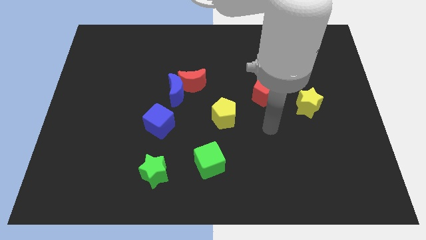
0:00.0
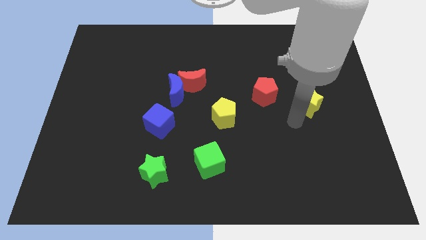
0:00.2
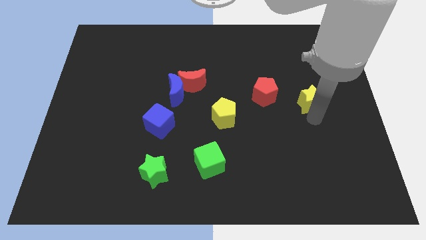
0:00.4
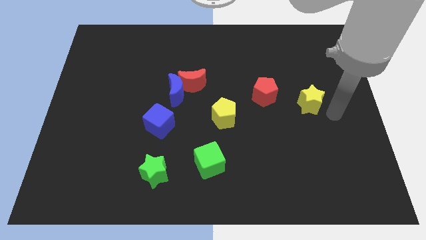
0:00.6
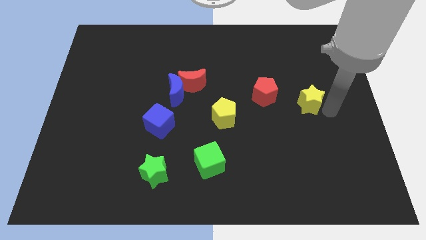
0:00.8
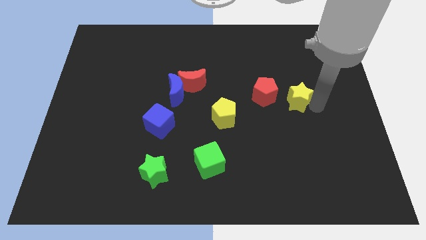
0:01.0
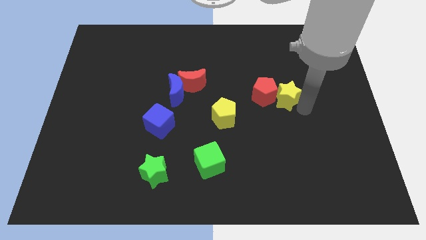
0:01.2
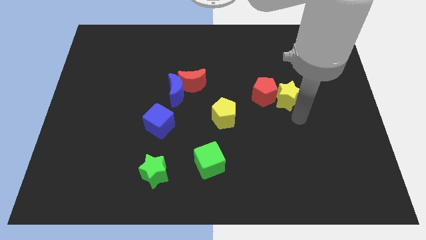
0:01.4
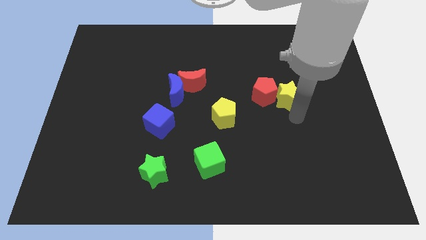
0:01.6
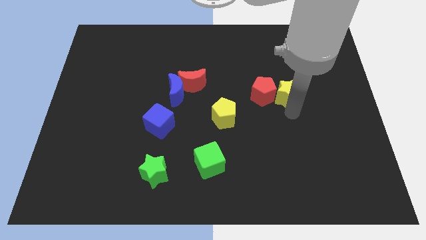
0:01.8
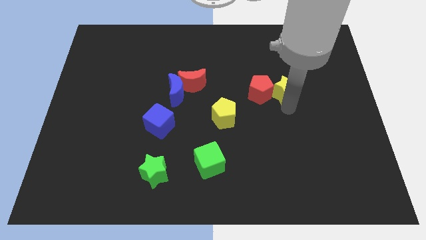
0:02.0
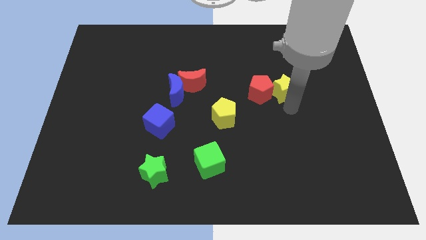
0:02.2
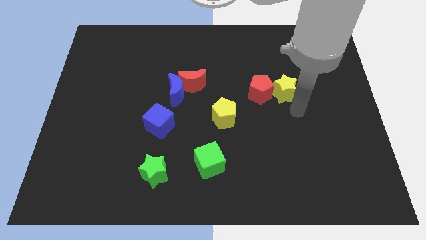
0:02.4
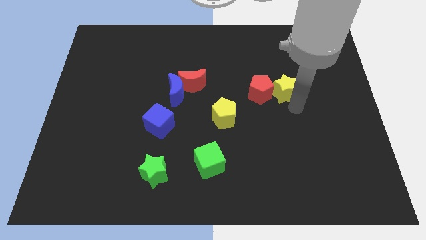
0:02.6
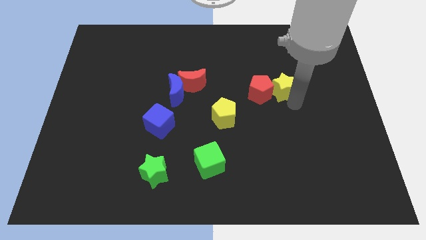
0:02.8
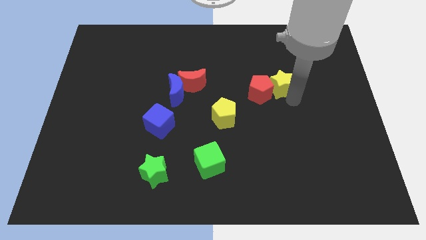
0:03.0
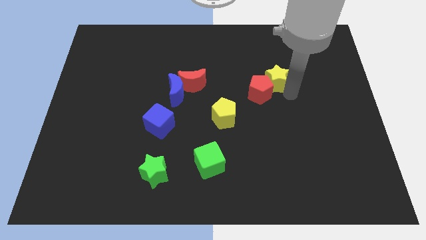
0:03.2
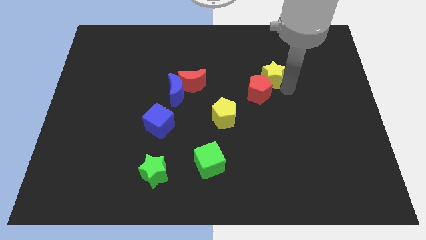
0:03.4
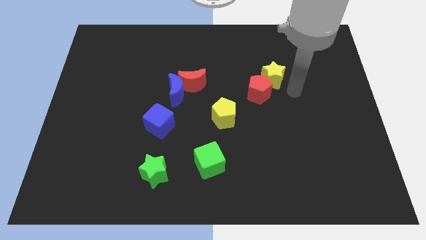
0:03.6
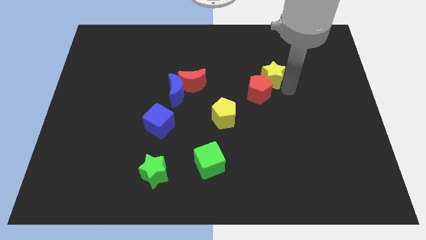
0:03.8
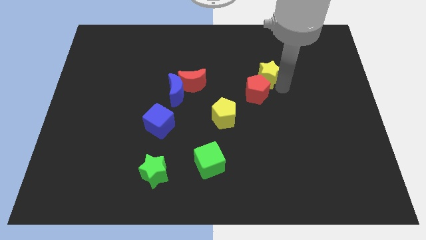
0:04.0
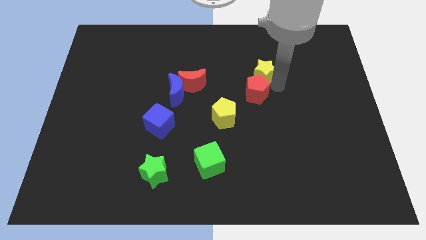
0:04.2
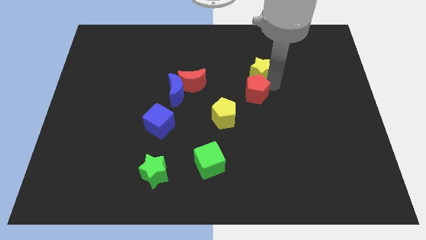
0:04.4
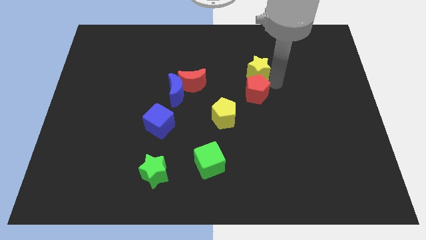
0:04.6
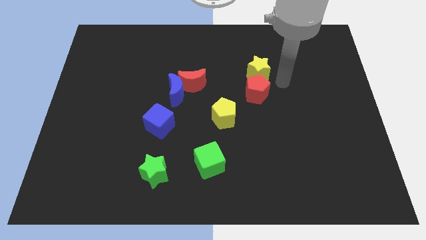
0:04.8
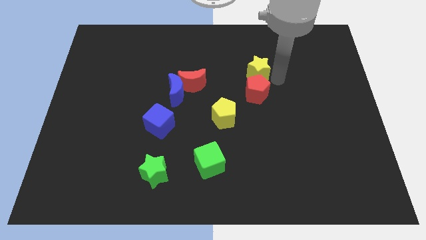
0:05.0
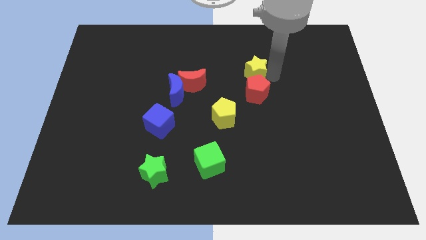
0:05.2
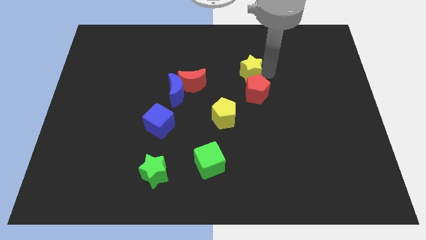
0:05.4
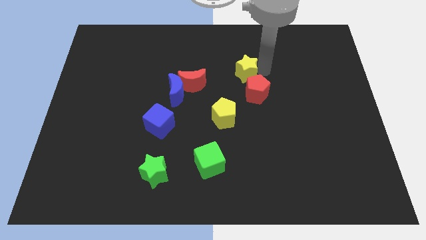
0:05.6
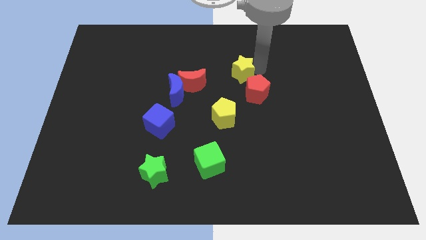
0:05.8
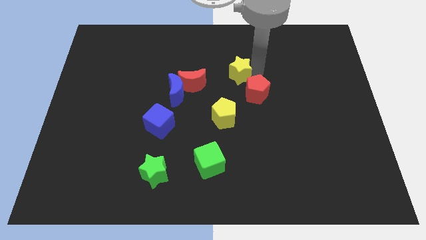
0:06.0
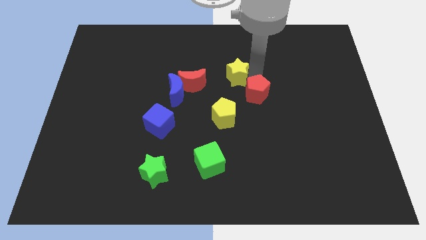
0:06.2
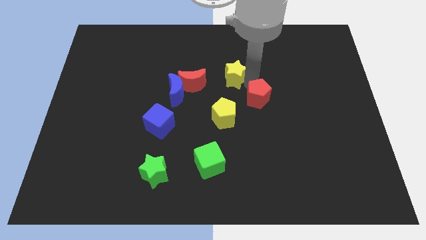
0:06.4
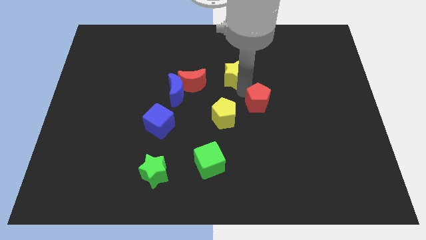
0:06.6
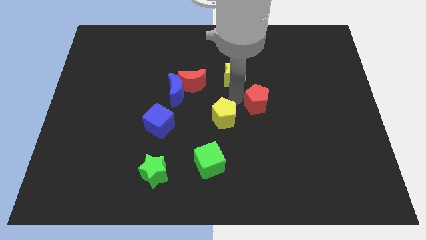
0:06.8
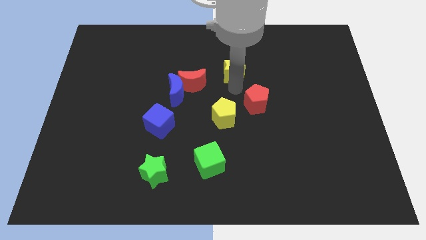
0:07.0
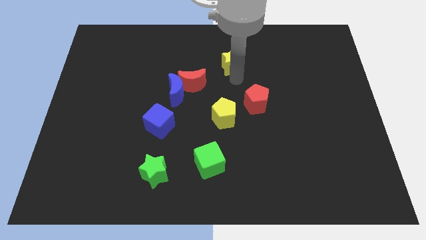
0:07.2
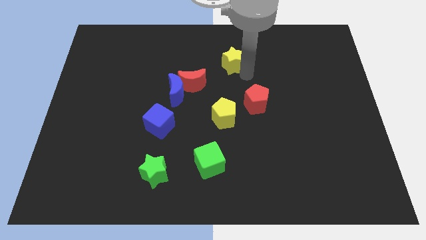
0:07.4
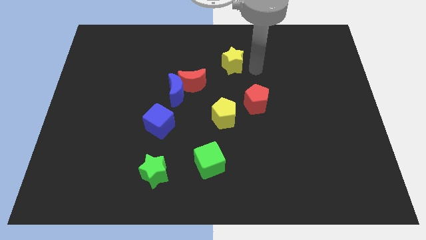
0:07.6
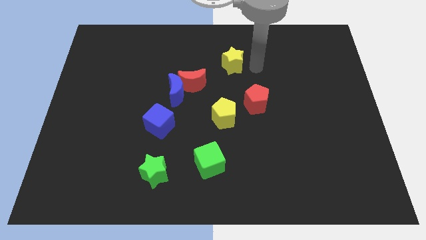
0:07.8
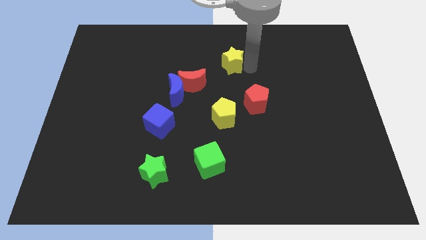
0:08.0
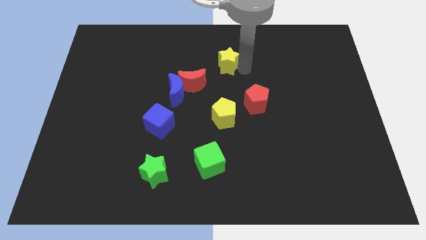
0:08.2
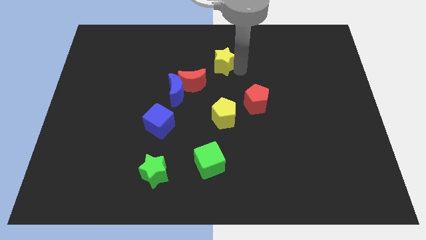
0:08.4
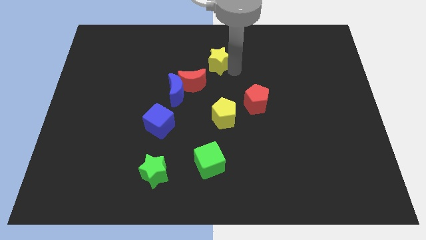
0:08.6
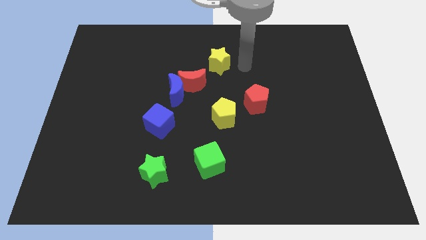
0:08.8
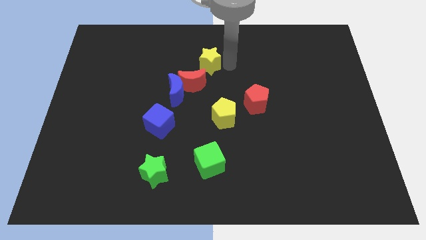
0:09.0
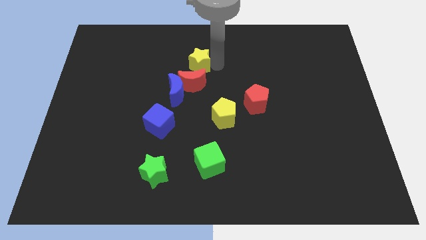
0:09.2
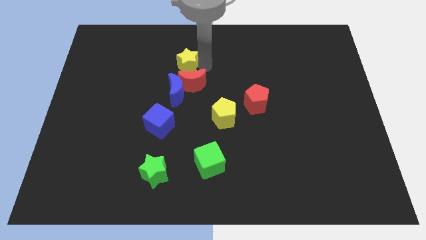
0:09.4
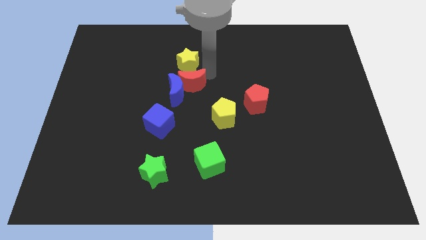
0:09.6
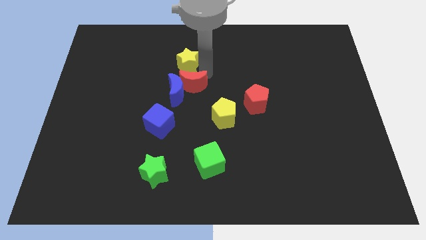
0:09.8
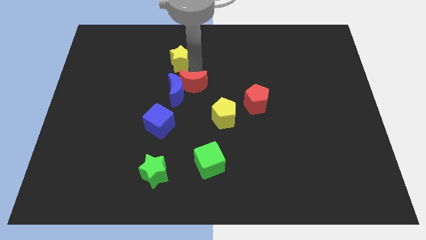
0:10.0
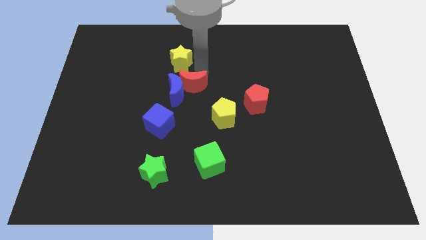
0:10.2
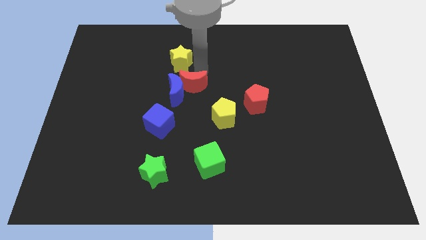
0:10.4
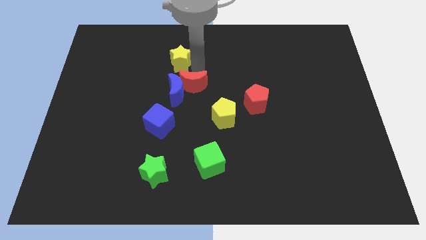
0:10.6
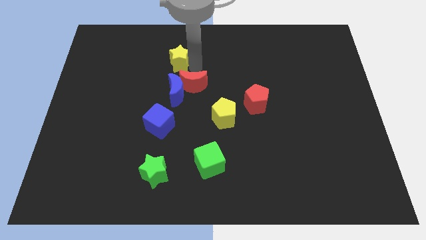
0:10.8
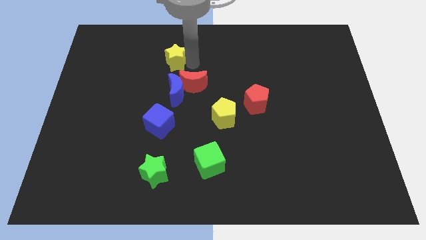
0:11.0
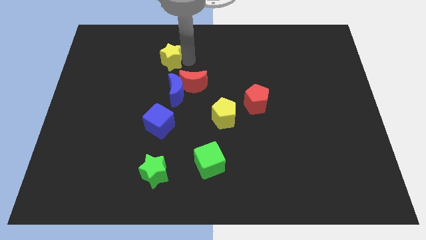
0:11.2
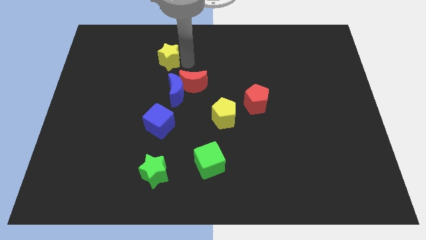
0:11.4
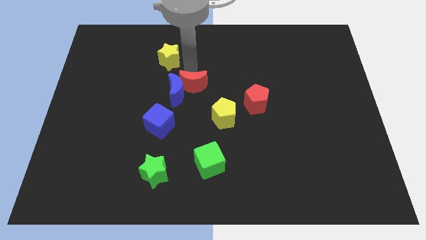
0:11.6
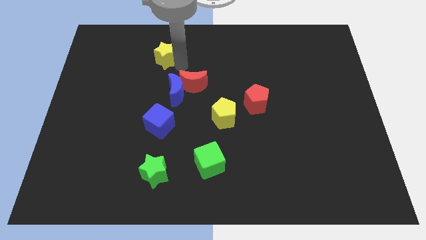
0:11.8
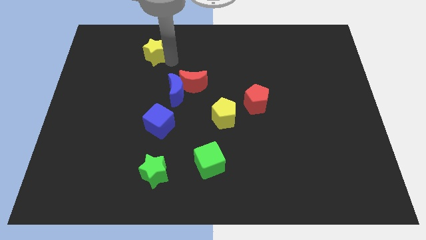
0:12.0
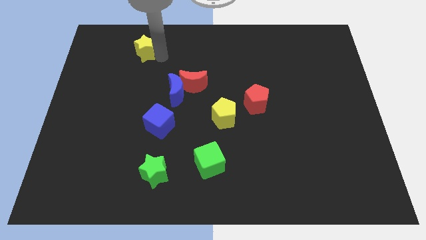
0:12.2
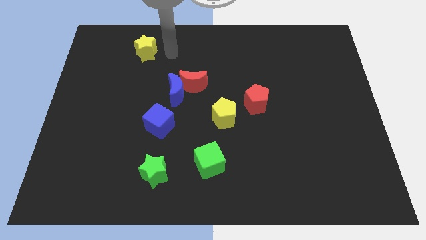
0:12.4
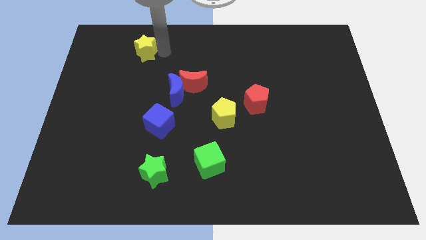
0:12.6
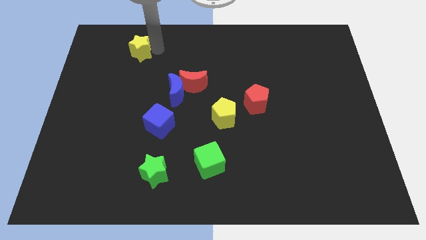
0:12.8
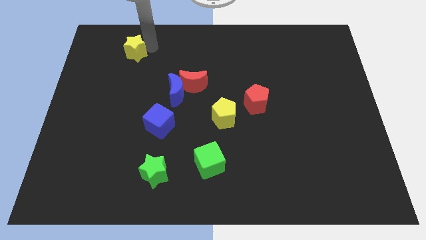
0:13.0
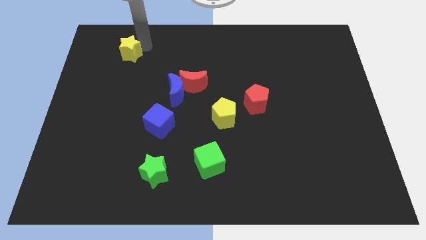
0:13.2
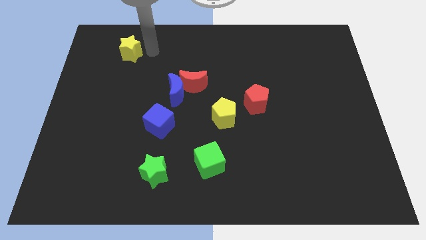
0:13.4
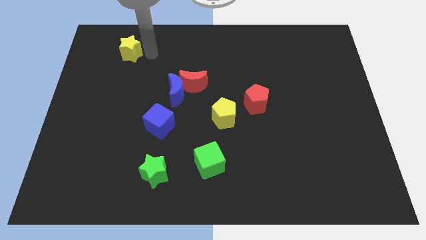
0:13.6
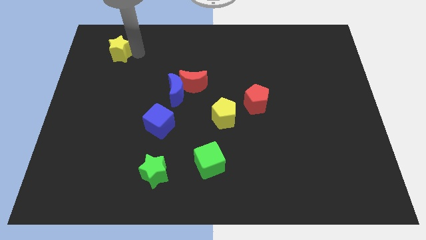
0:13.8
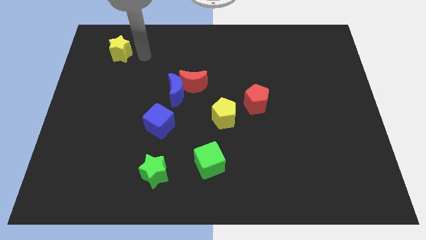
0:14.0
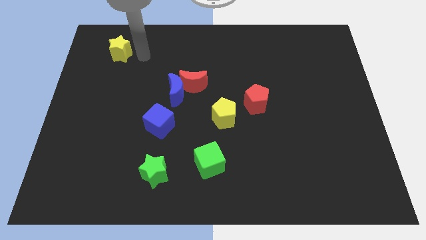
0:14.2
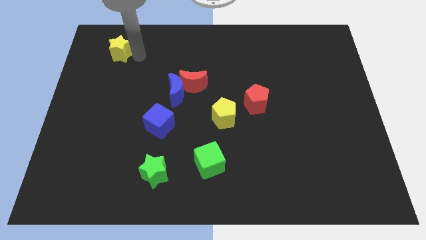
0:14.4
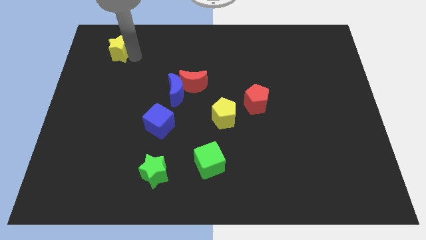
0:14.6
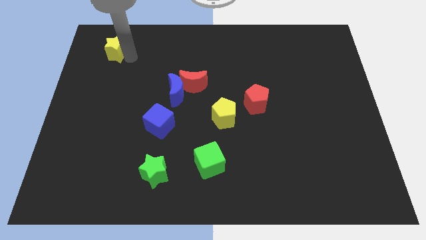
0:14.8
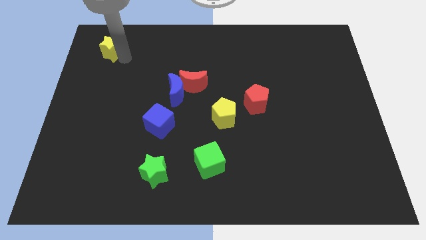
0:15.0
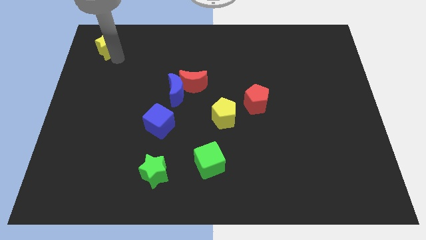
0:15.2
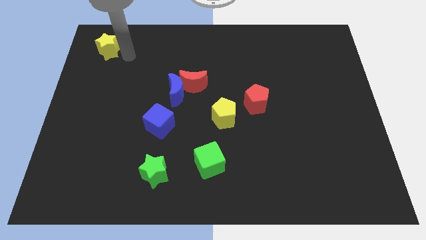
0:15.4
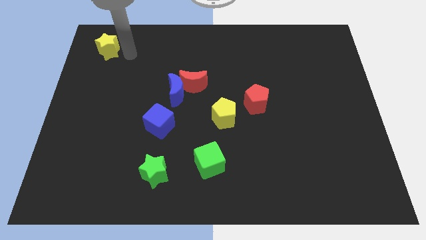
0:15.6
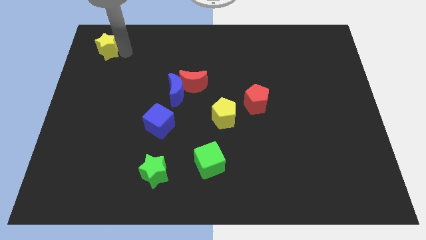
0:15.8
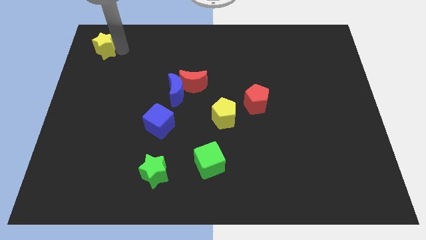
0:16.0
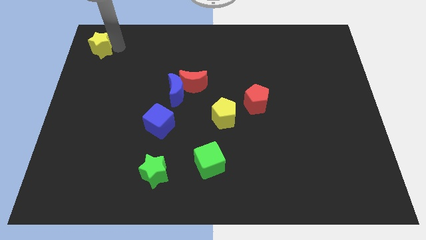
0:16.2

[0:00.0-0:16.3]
push the yellow star to the upper left corner
